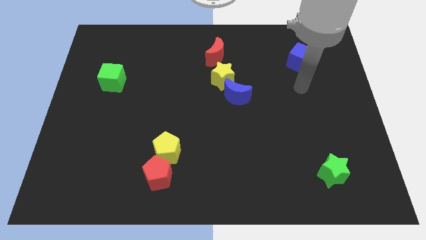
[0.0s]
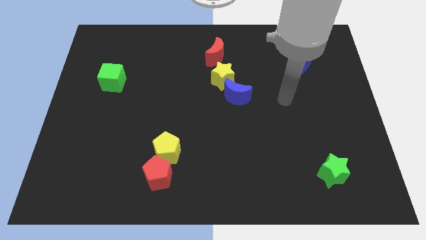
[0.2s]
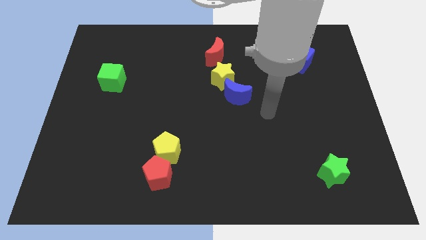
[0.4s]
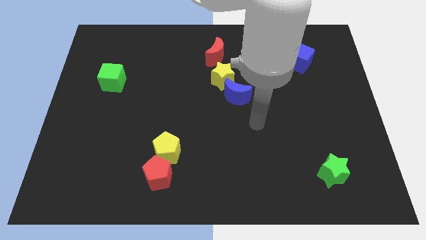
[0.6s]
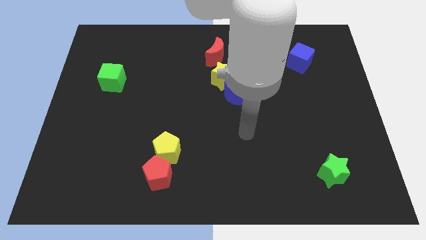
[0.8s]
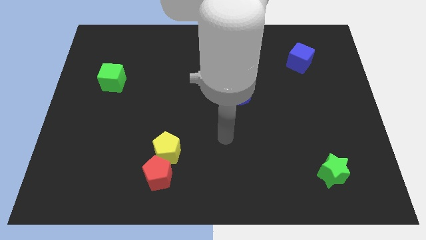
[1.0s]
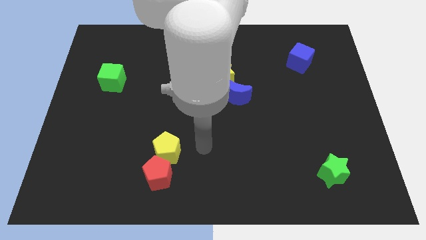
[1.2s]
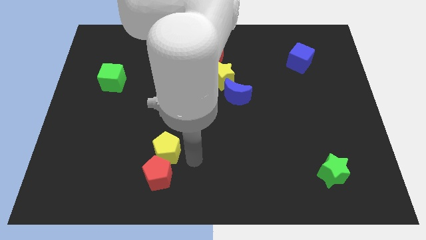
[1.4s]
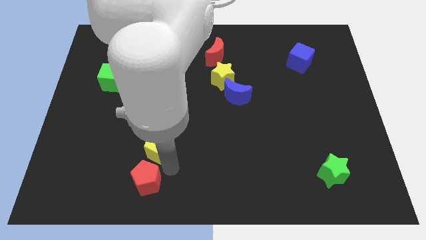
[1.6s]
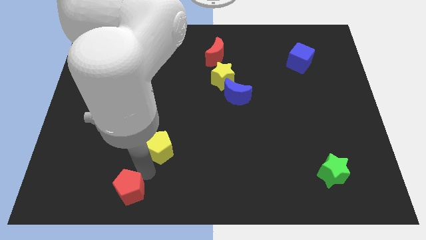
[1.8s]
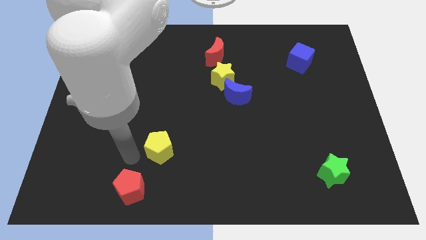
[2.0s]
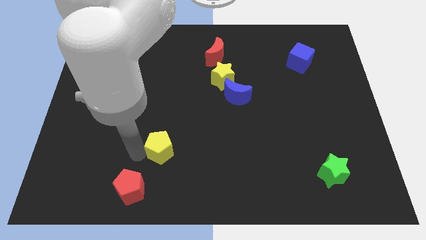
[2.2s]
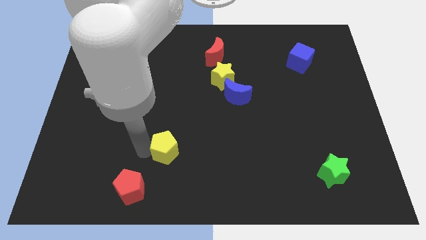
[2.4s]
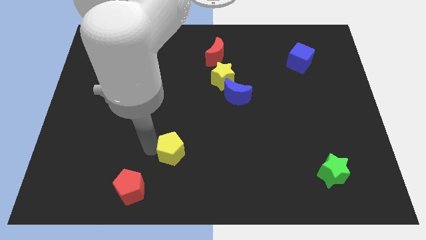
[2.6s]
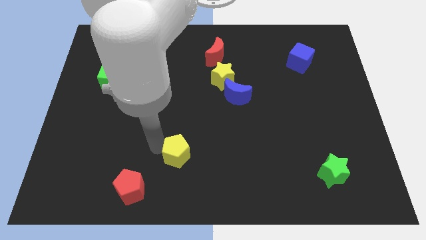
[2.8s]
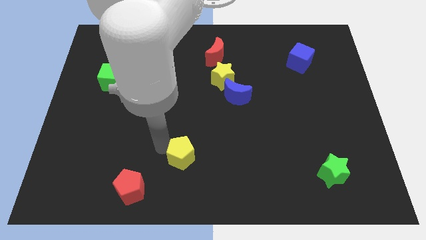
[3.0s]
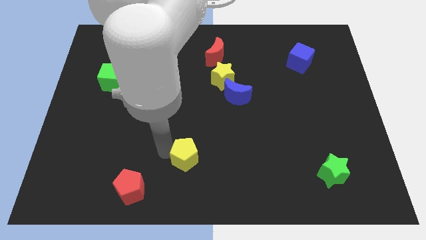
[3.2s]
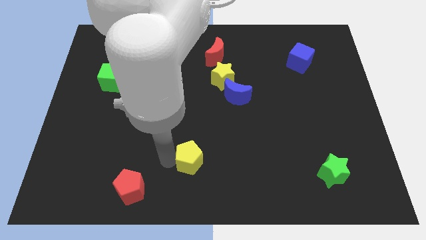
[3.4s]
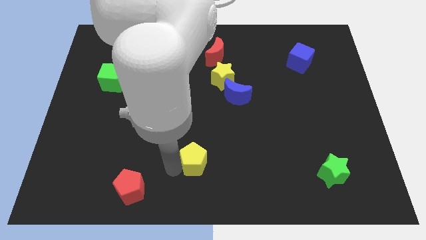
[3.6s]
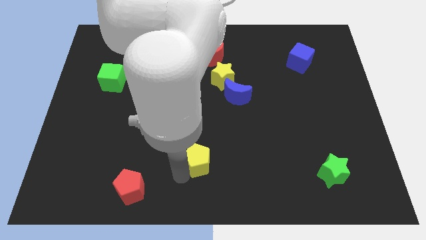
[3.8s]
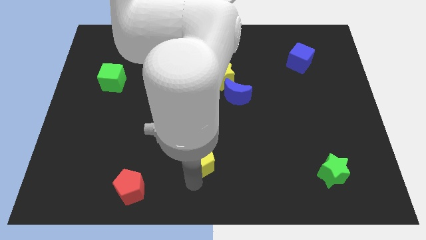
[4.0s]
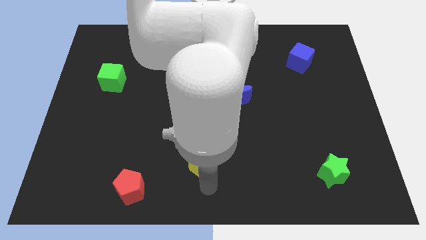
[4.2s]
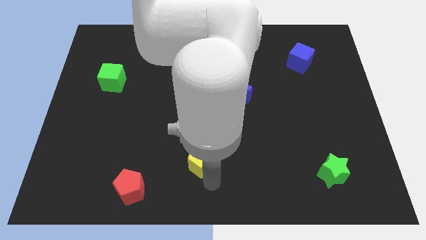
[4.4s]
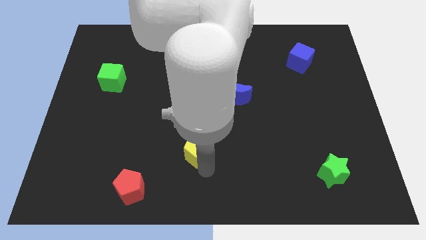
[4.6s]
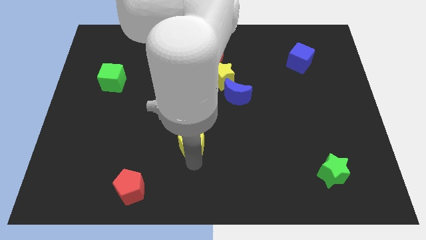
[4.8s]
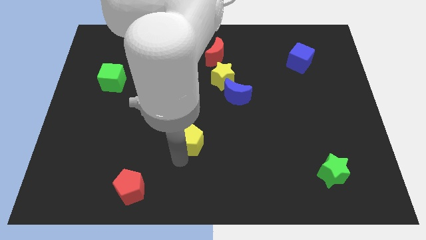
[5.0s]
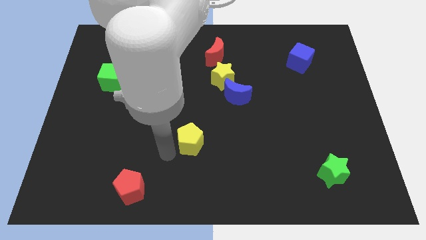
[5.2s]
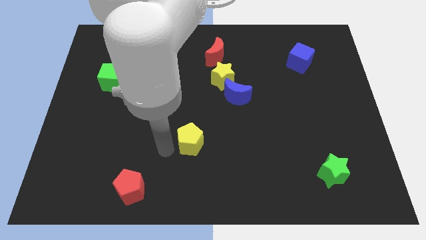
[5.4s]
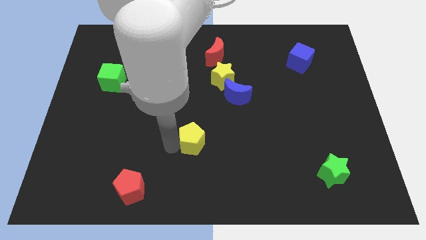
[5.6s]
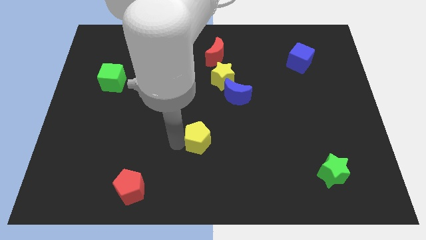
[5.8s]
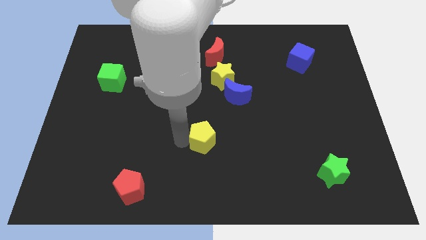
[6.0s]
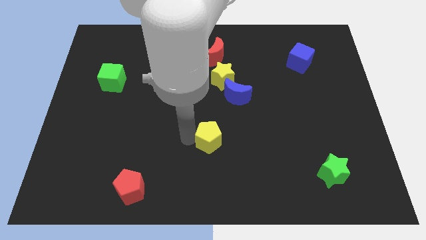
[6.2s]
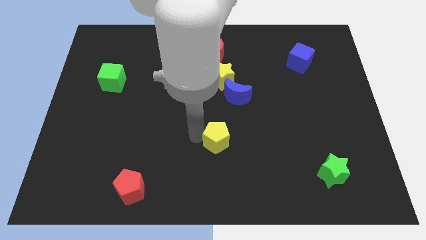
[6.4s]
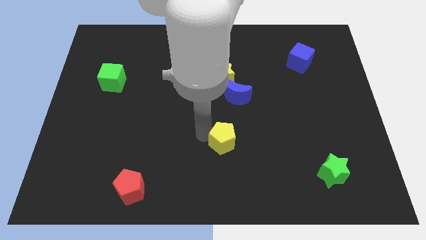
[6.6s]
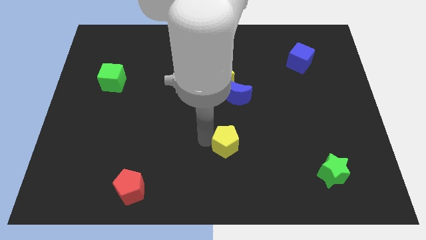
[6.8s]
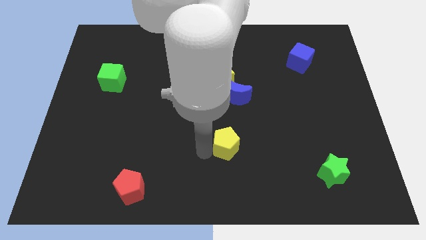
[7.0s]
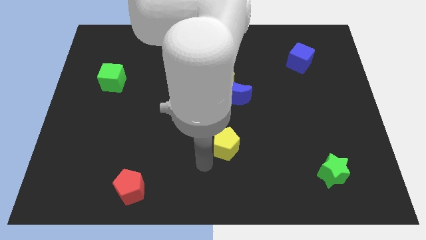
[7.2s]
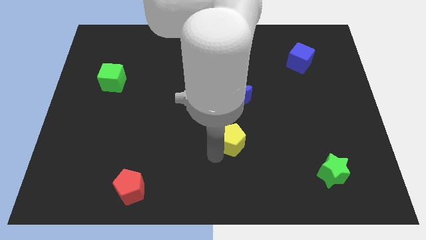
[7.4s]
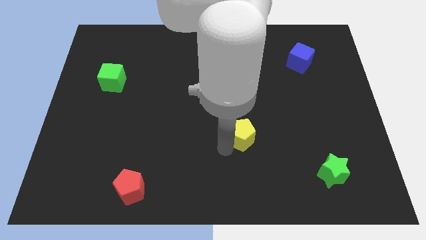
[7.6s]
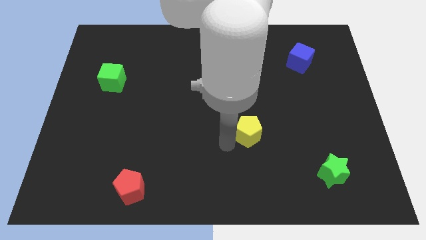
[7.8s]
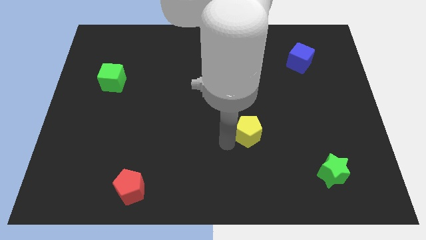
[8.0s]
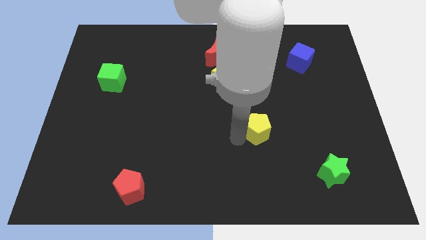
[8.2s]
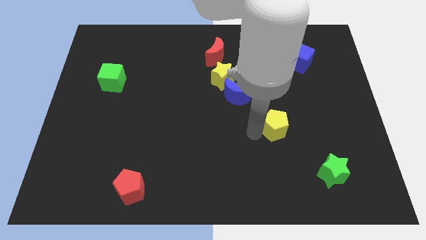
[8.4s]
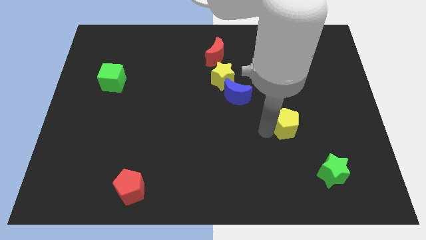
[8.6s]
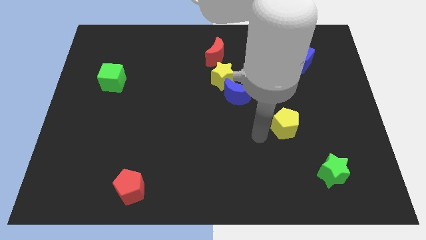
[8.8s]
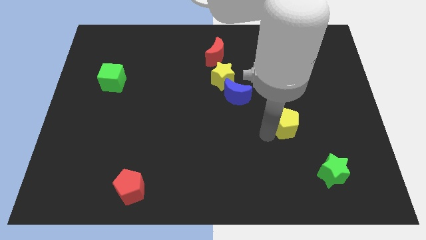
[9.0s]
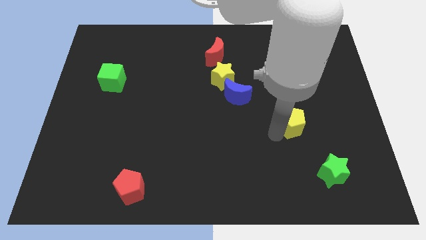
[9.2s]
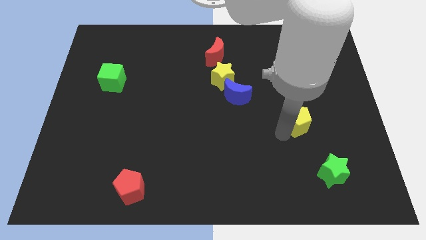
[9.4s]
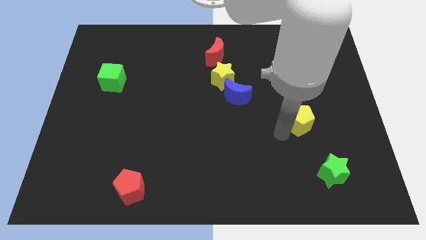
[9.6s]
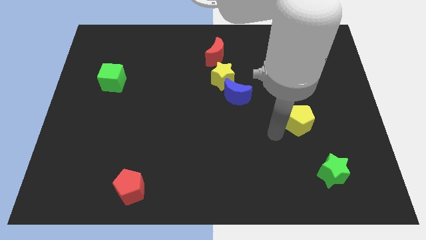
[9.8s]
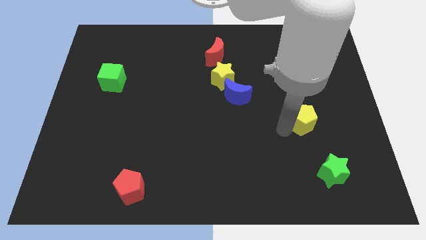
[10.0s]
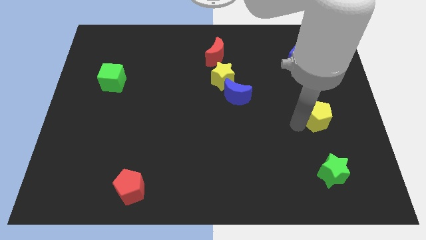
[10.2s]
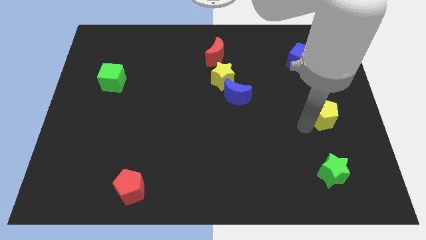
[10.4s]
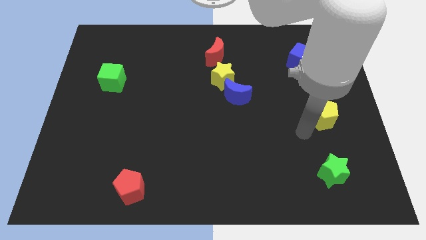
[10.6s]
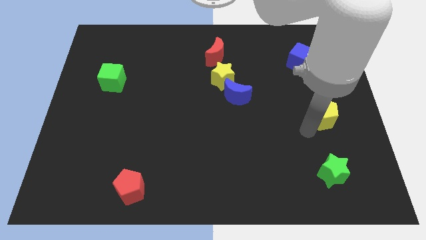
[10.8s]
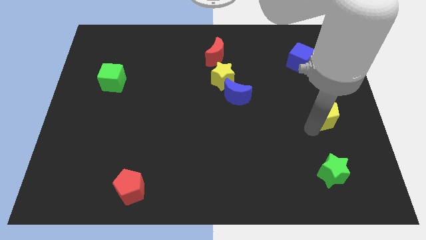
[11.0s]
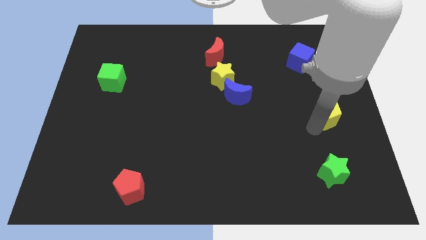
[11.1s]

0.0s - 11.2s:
move the yellow pentagon to the right side

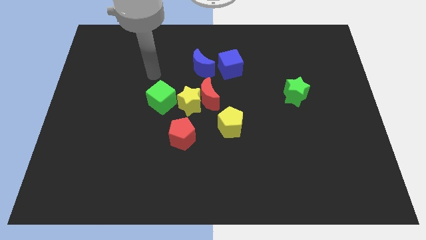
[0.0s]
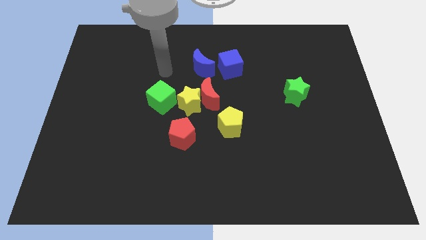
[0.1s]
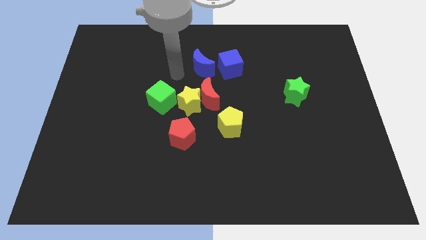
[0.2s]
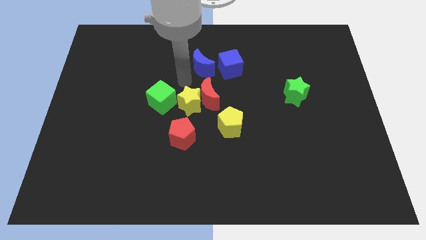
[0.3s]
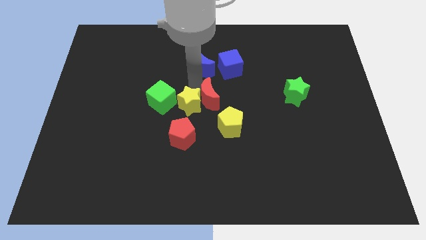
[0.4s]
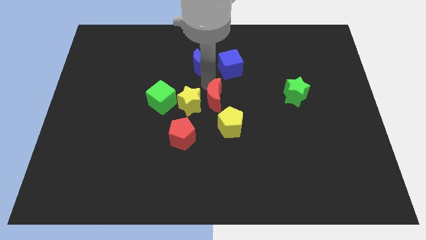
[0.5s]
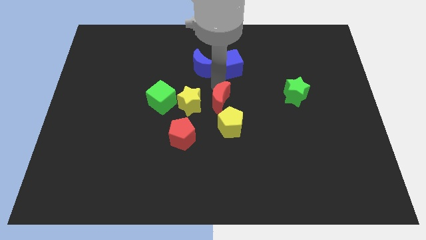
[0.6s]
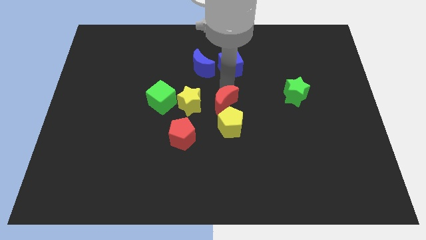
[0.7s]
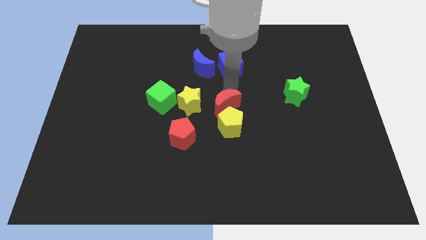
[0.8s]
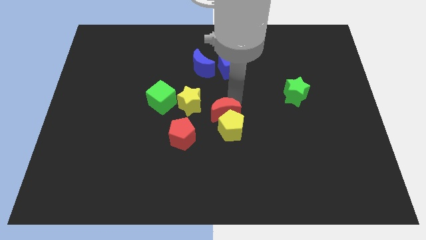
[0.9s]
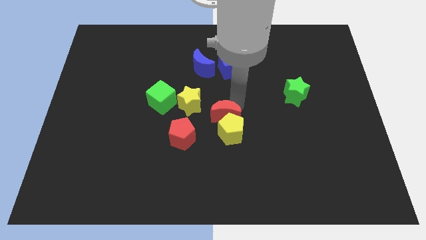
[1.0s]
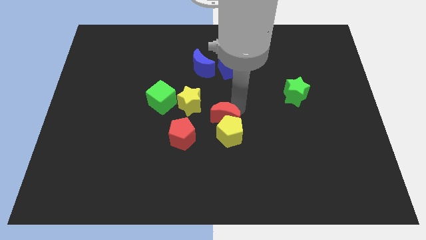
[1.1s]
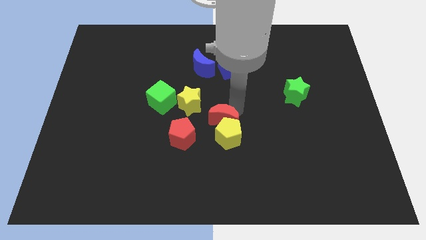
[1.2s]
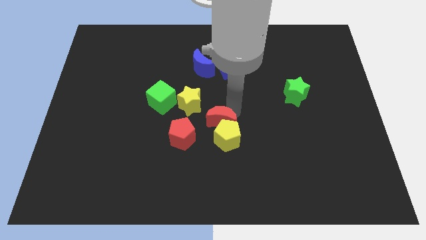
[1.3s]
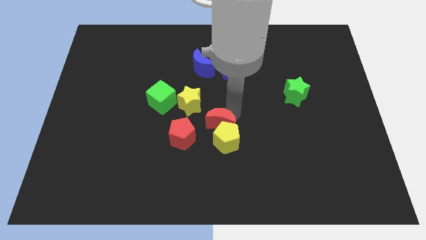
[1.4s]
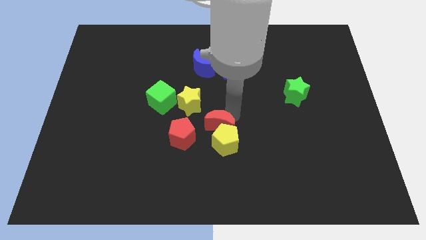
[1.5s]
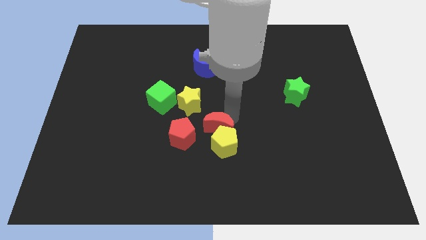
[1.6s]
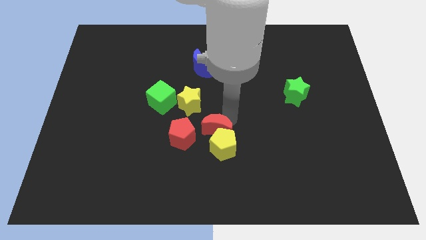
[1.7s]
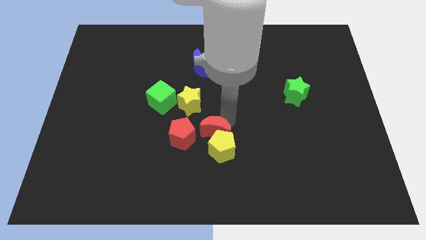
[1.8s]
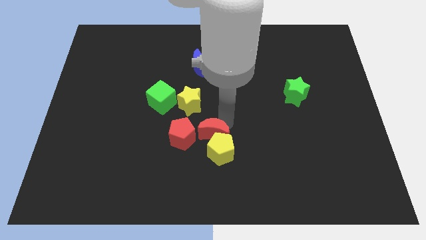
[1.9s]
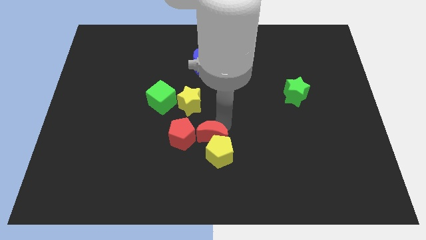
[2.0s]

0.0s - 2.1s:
push the yellow pentagon to the bottom
